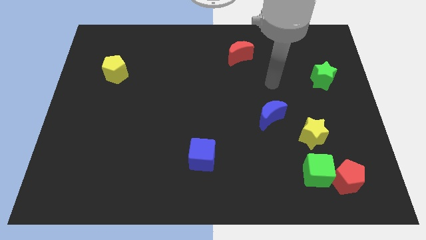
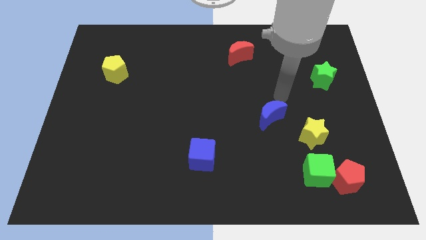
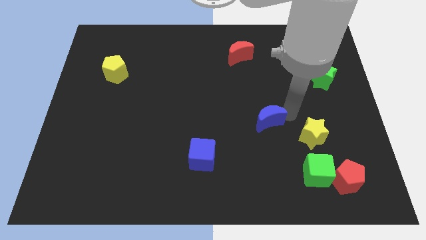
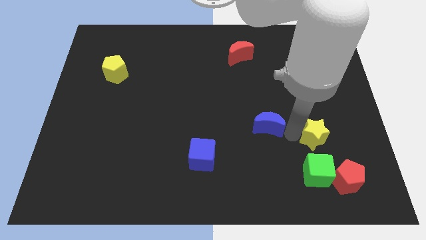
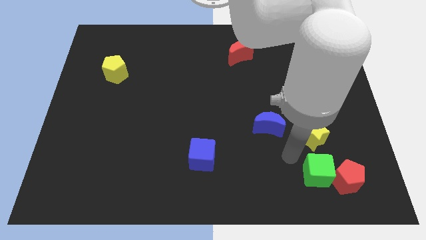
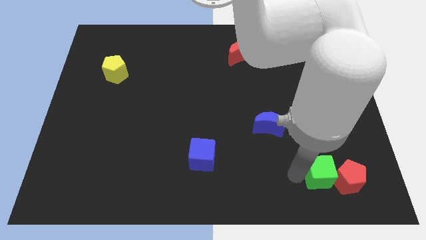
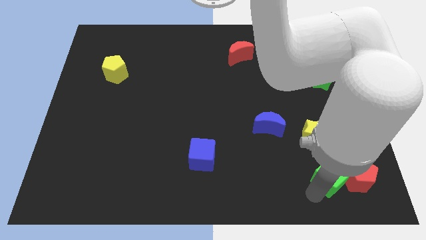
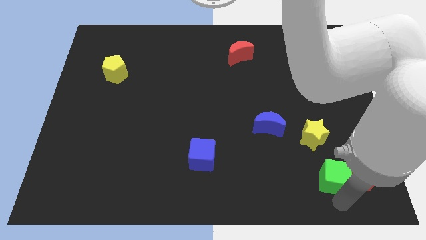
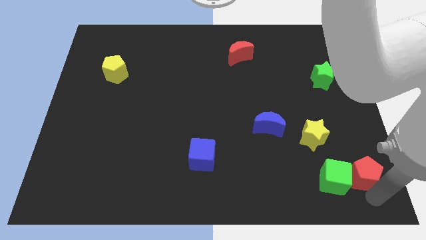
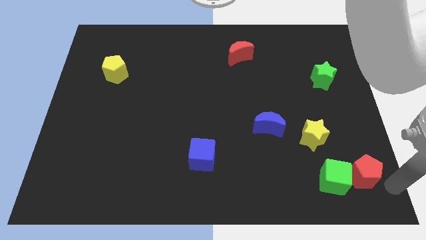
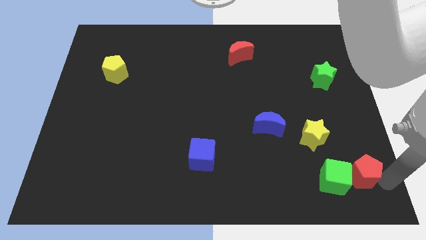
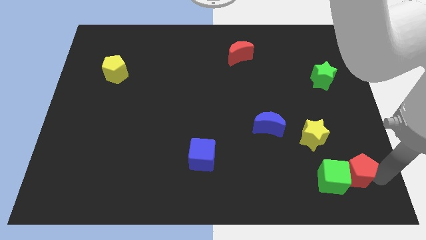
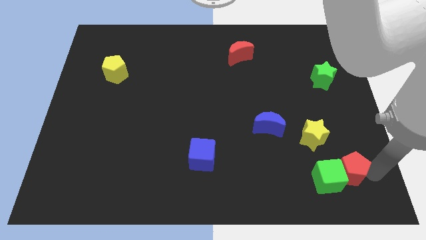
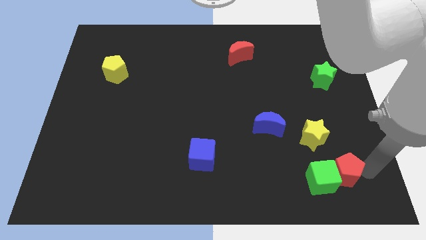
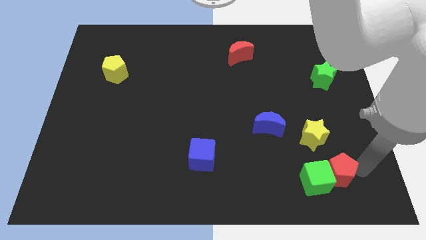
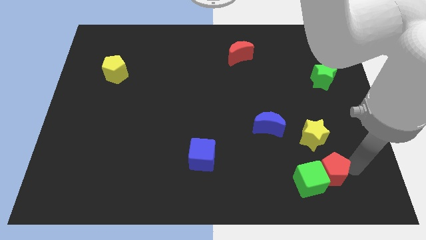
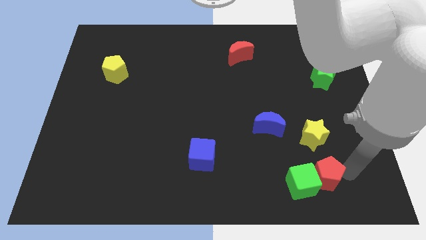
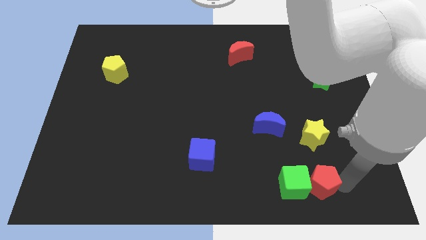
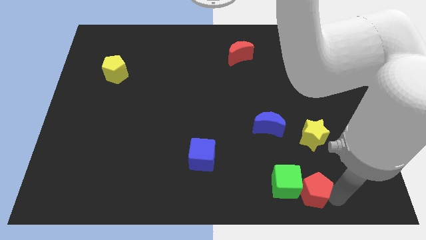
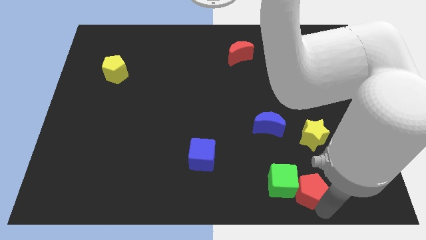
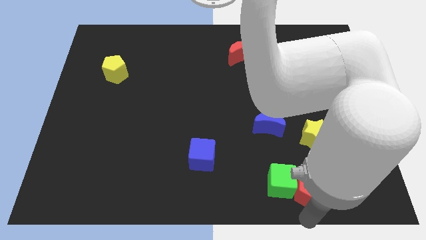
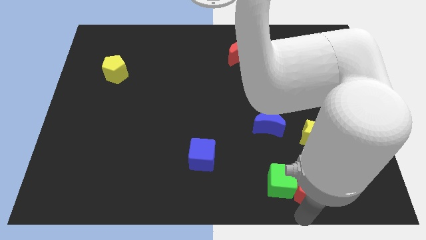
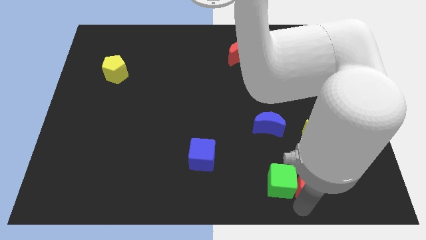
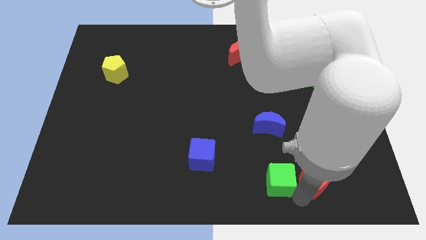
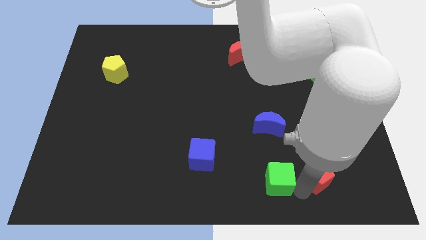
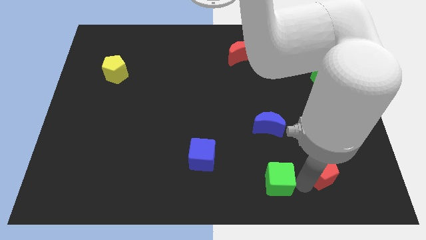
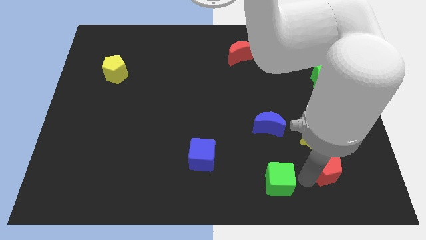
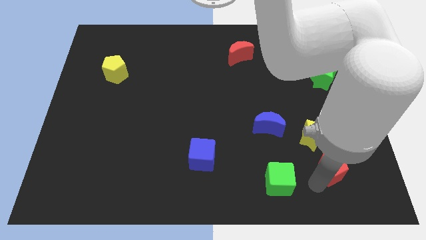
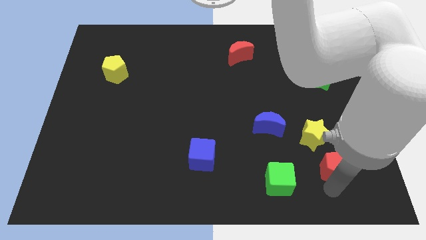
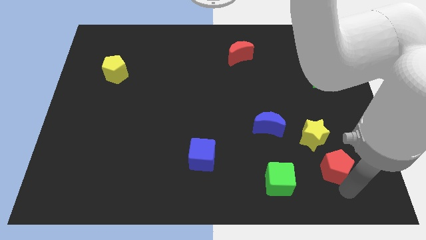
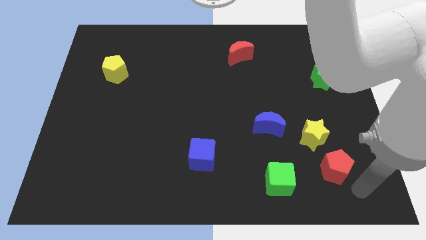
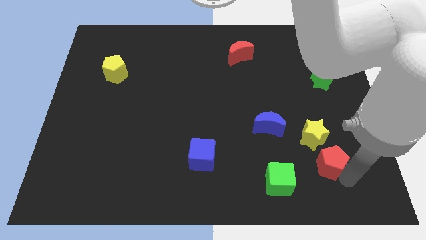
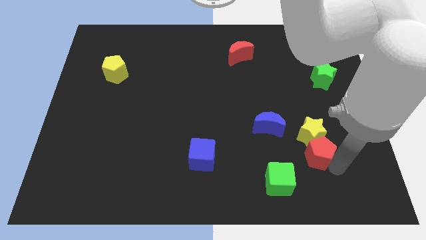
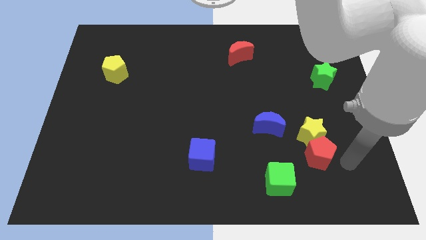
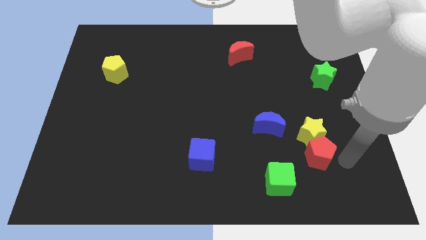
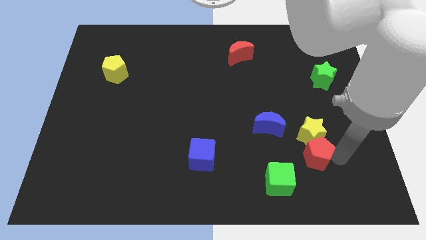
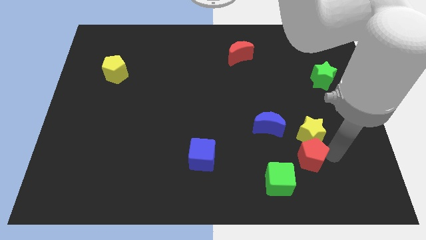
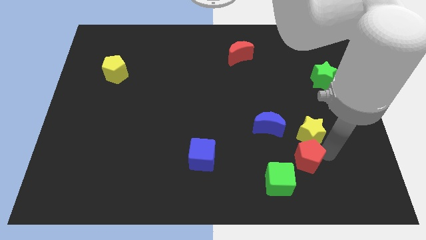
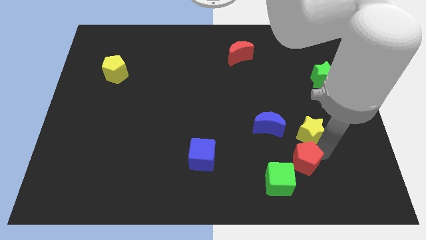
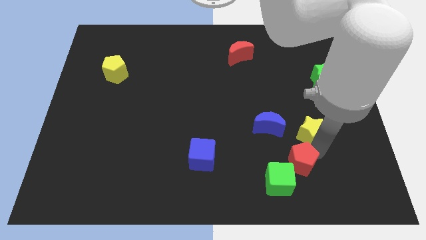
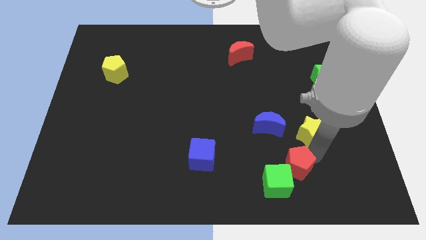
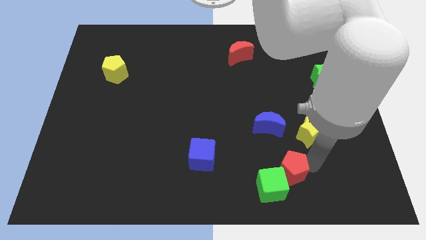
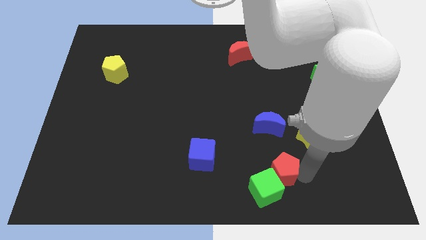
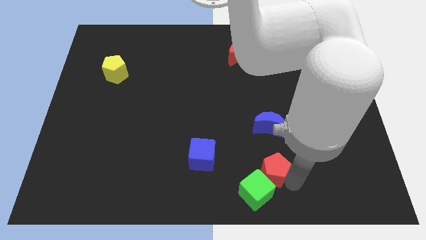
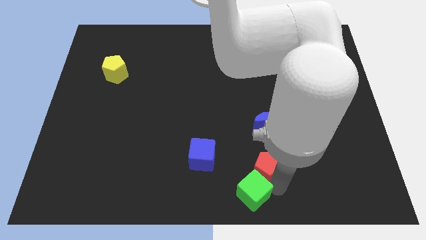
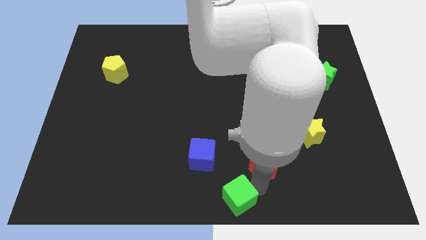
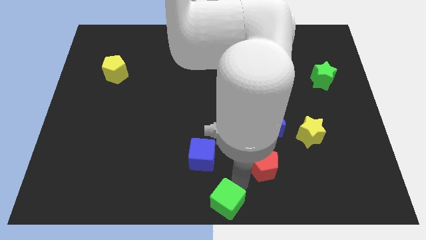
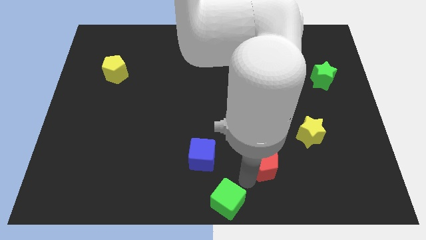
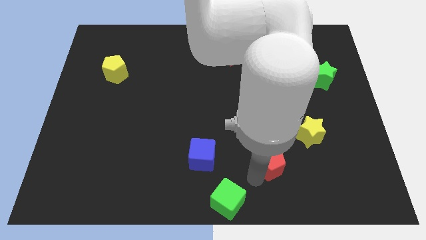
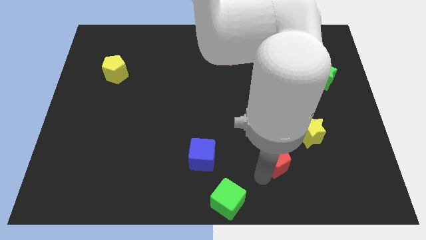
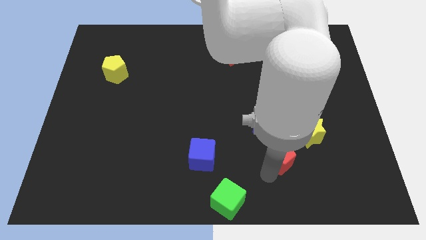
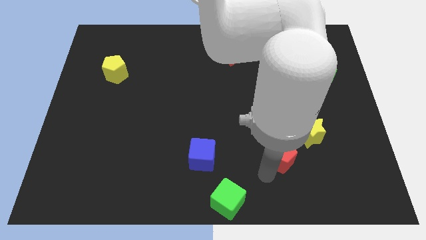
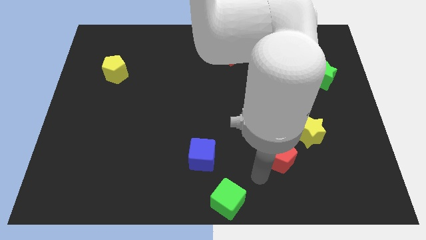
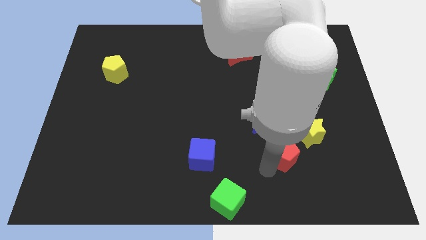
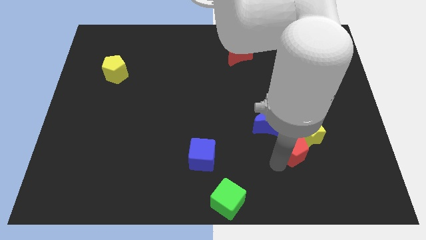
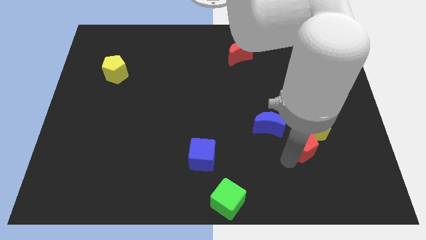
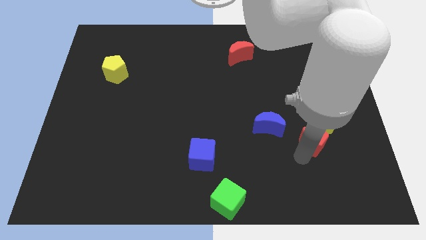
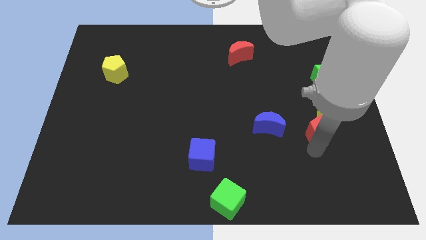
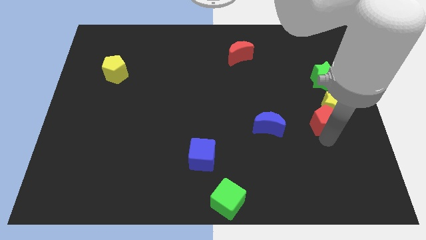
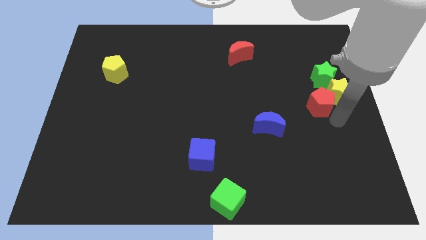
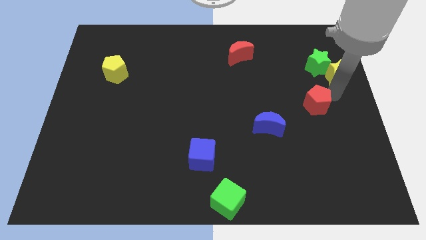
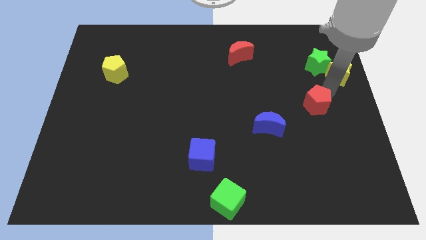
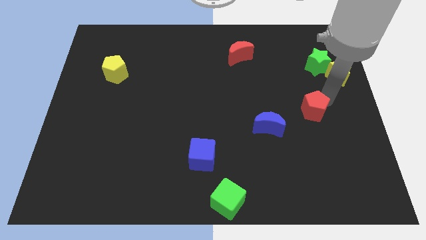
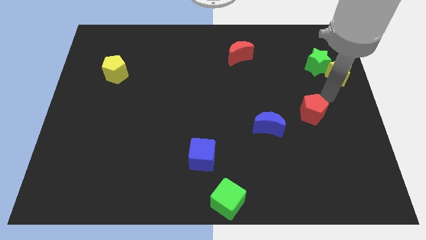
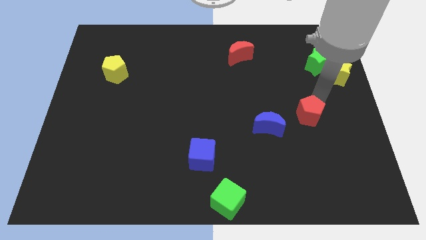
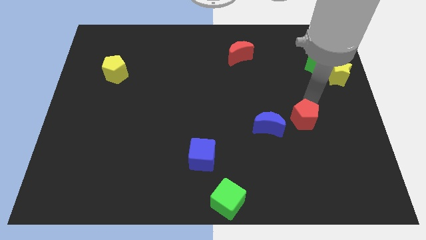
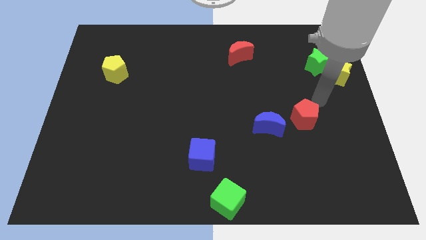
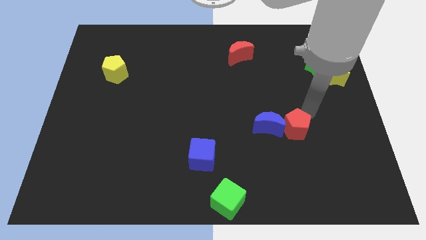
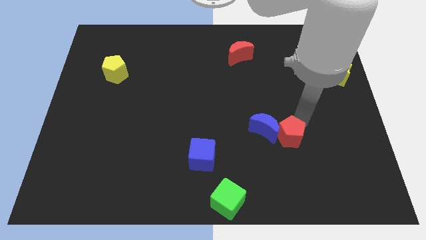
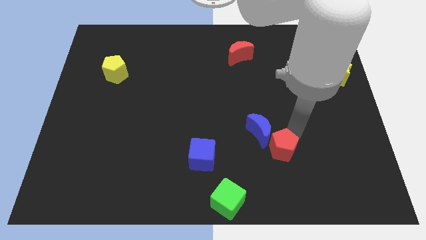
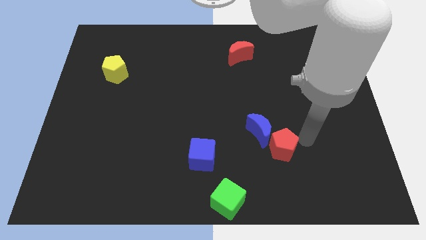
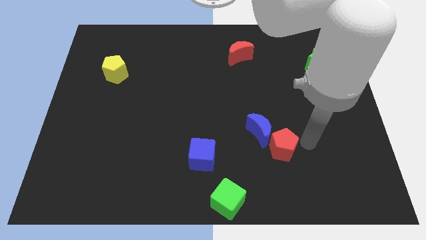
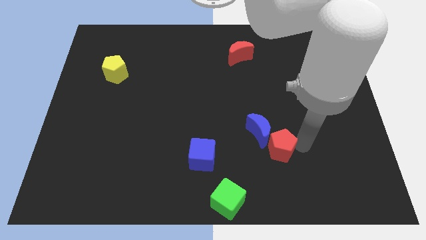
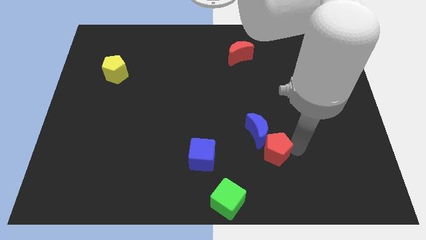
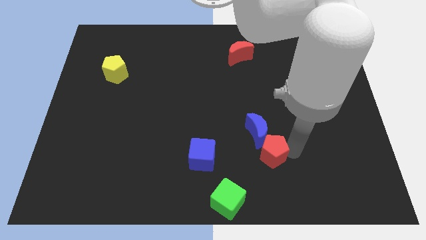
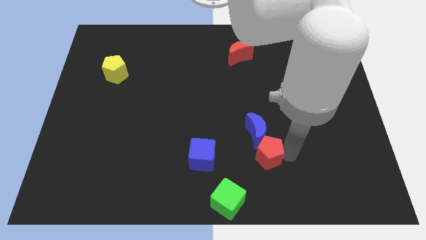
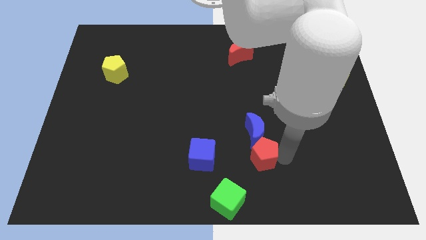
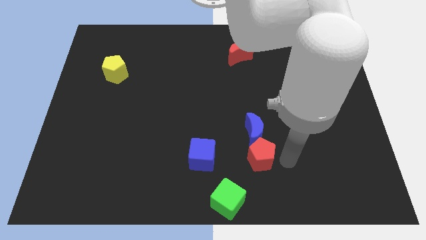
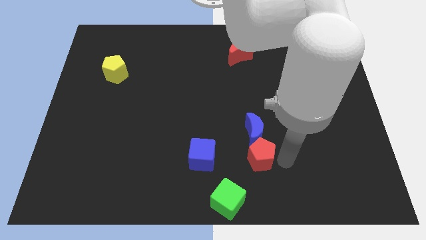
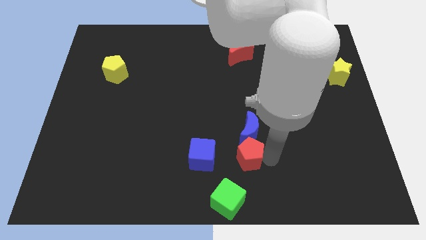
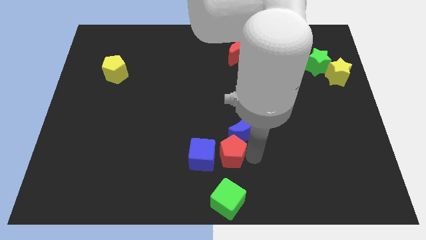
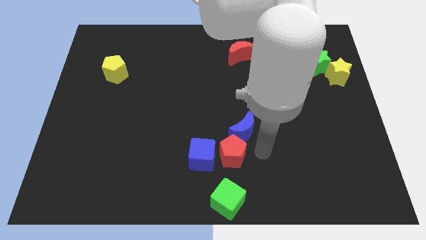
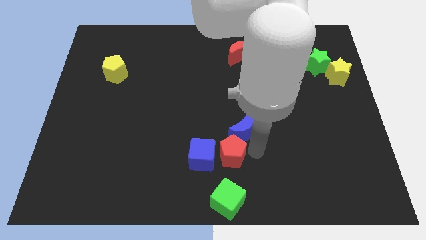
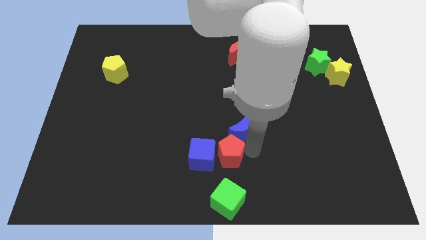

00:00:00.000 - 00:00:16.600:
move the red pentagon towards the blue cube
